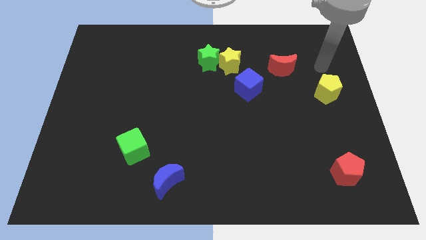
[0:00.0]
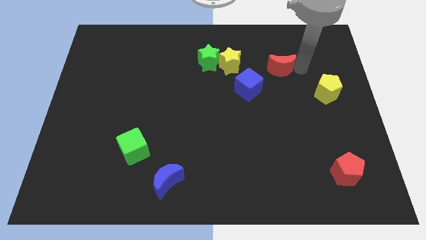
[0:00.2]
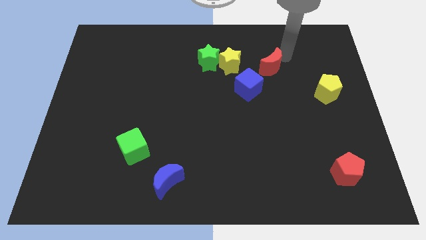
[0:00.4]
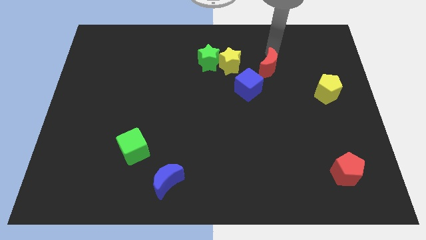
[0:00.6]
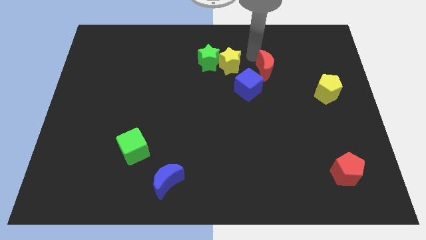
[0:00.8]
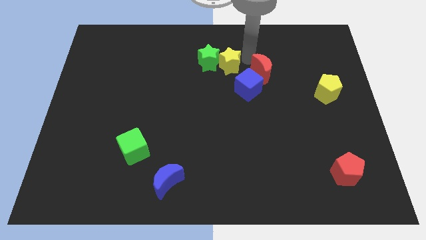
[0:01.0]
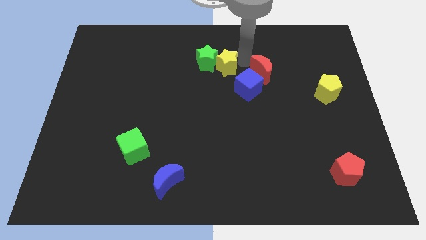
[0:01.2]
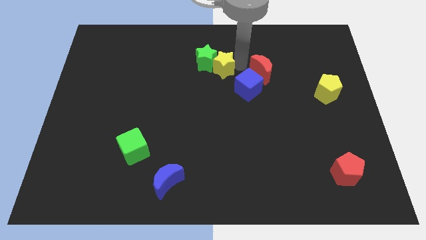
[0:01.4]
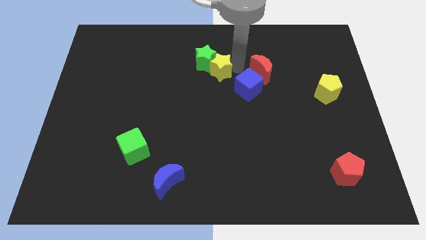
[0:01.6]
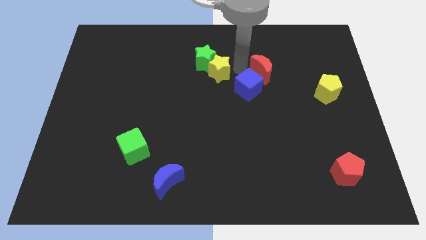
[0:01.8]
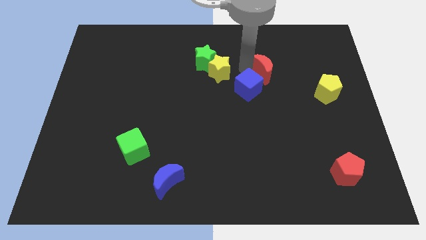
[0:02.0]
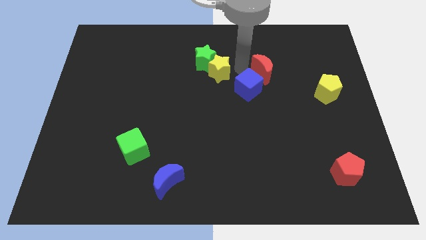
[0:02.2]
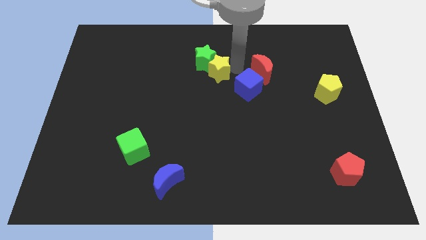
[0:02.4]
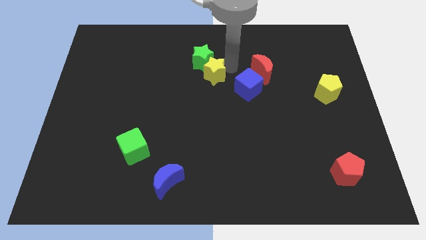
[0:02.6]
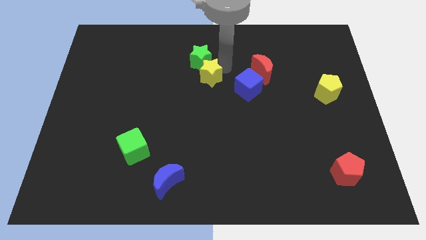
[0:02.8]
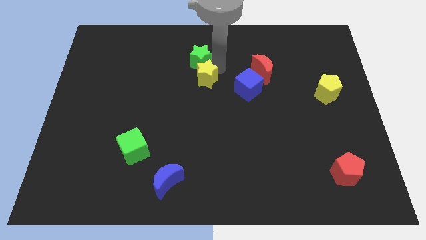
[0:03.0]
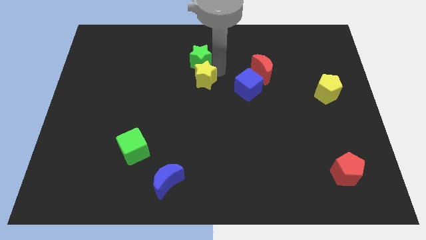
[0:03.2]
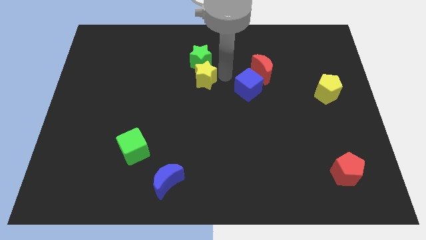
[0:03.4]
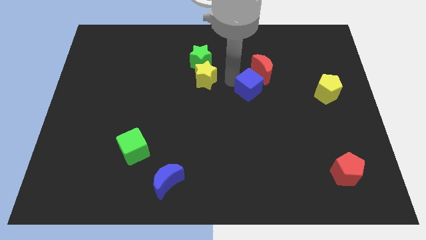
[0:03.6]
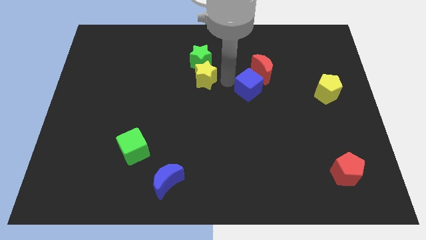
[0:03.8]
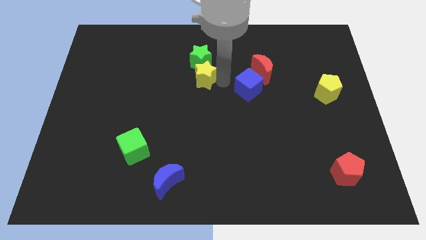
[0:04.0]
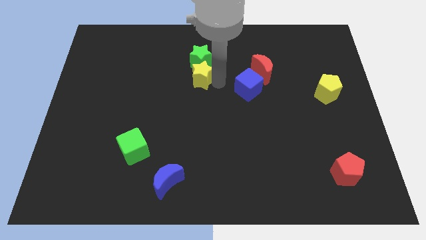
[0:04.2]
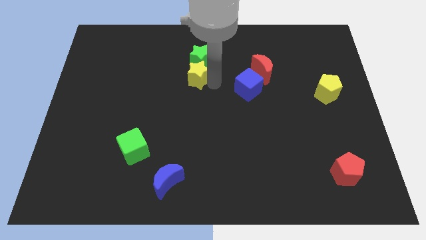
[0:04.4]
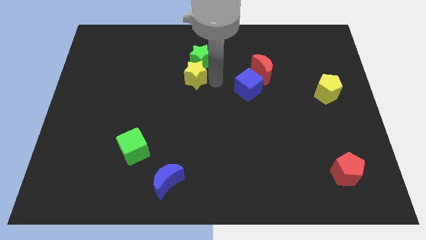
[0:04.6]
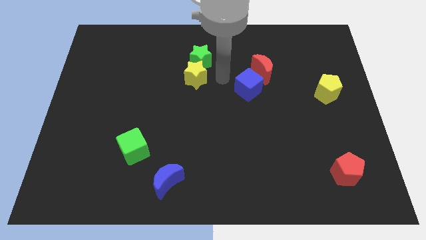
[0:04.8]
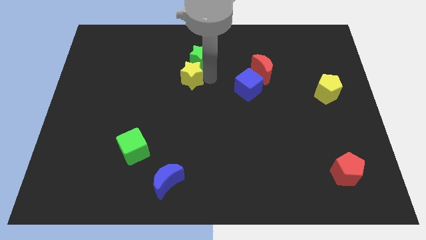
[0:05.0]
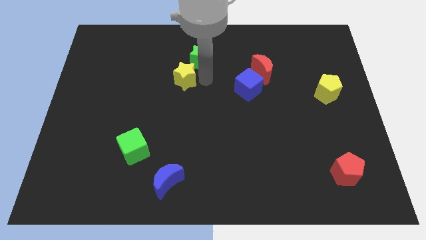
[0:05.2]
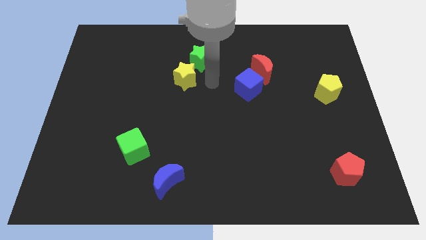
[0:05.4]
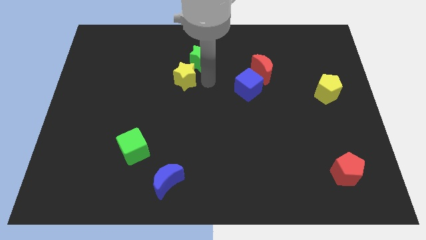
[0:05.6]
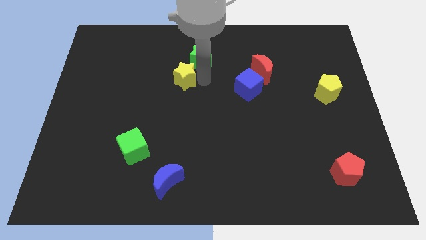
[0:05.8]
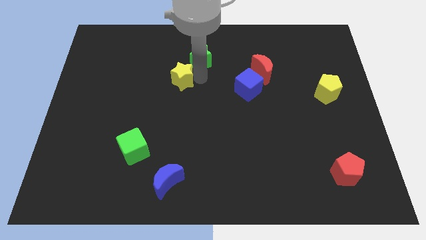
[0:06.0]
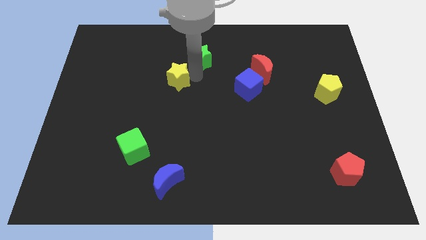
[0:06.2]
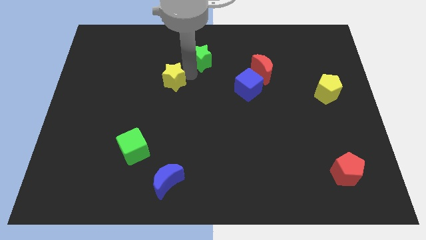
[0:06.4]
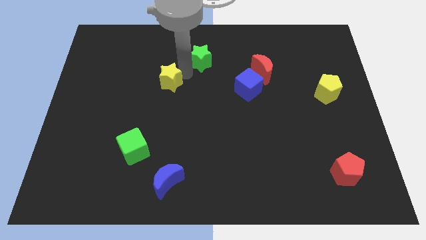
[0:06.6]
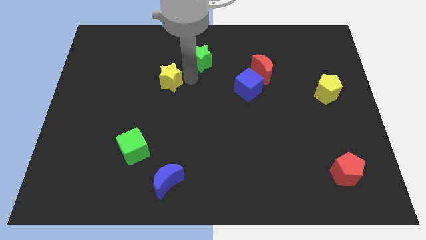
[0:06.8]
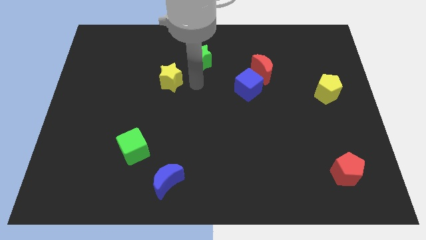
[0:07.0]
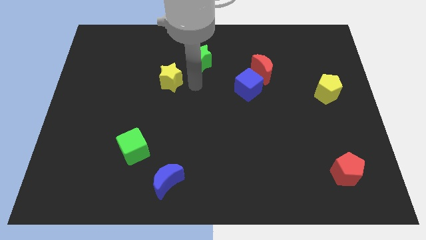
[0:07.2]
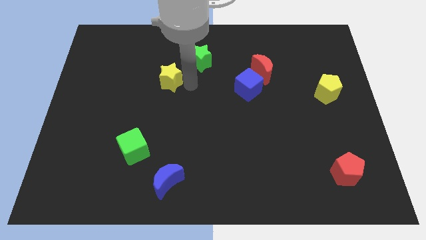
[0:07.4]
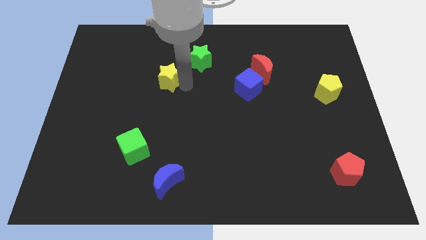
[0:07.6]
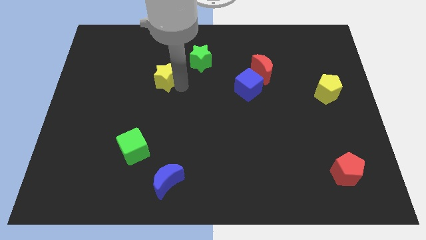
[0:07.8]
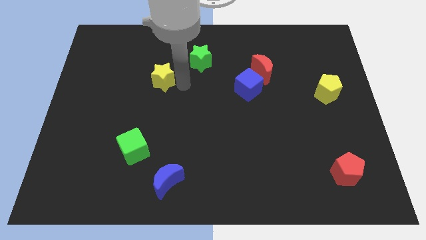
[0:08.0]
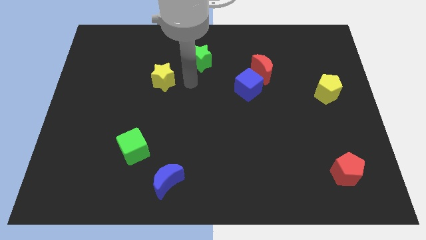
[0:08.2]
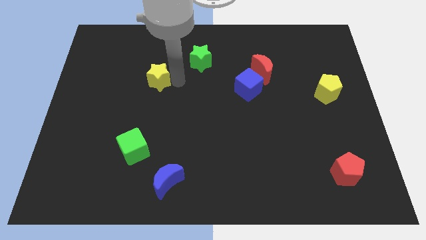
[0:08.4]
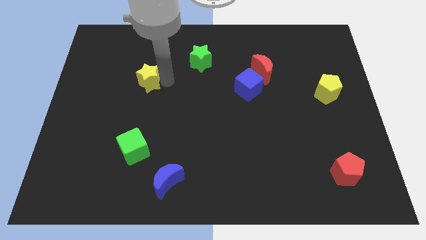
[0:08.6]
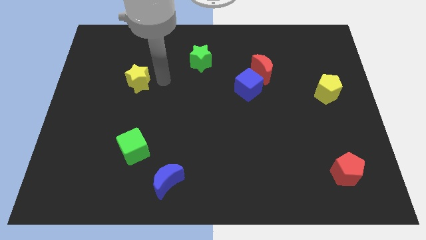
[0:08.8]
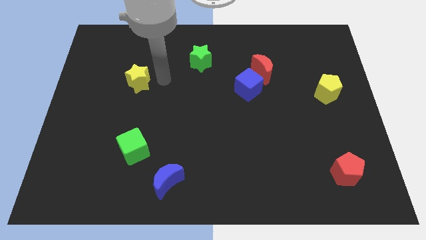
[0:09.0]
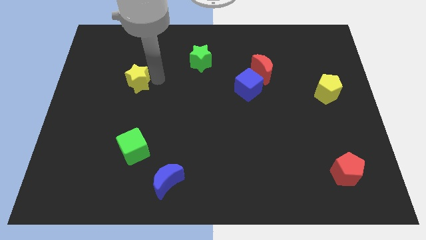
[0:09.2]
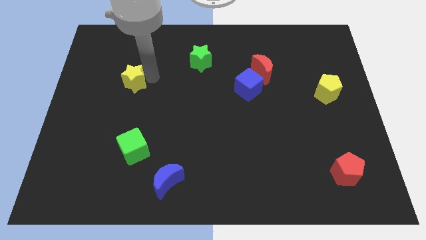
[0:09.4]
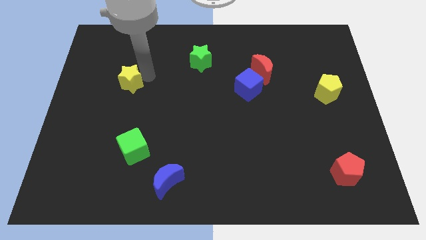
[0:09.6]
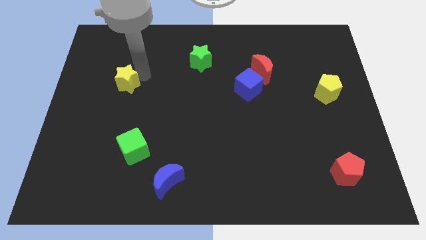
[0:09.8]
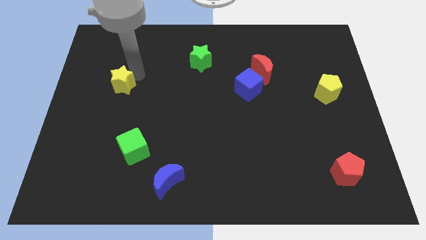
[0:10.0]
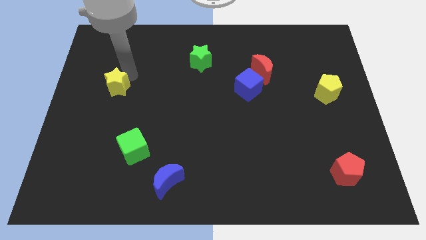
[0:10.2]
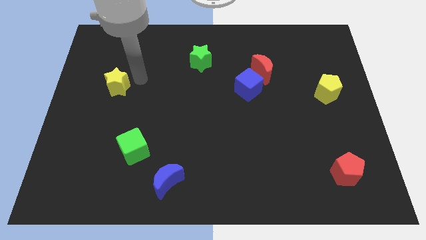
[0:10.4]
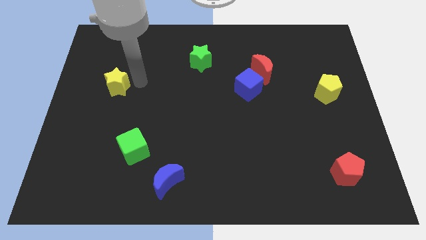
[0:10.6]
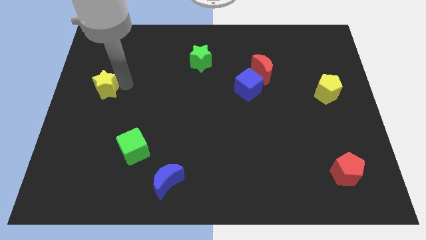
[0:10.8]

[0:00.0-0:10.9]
push the yellow star to the left side of the board
